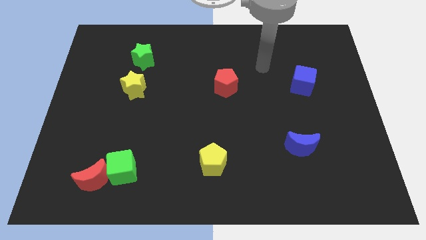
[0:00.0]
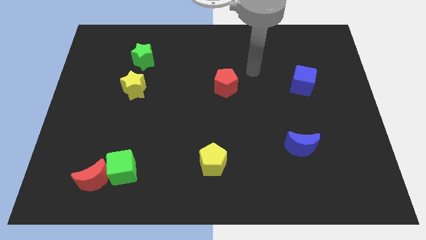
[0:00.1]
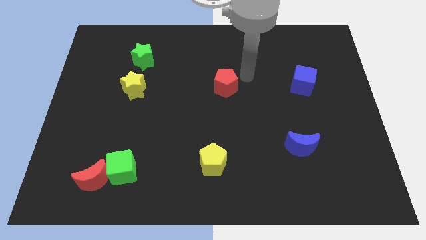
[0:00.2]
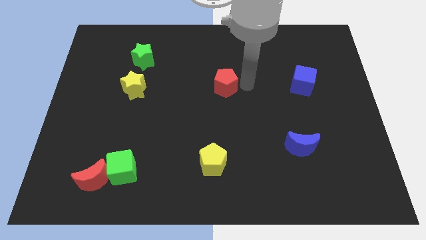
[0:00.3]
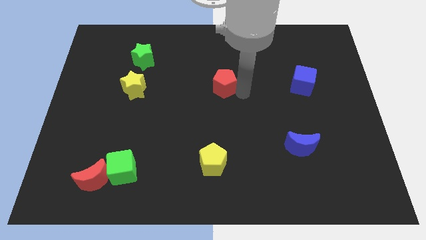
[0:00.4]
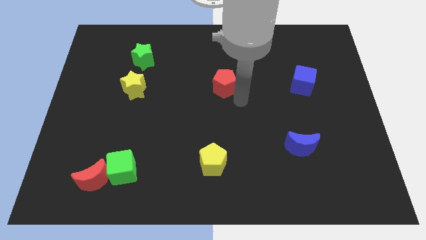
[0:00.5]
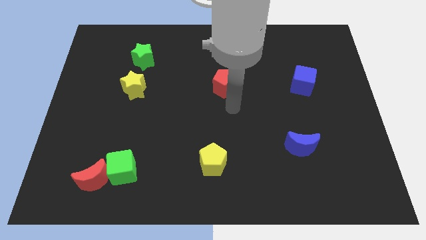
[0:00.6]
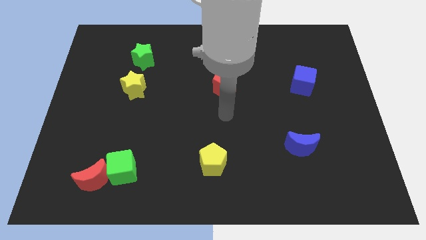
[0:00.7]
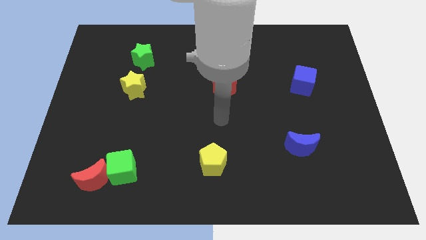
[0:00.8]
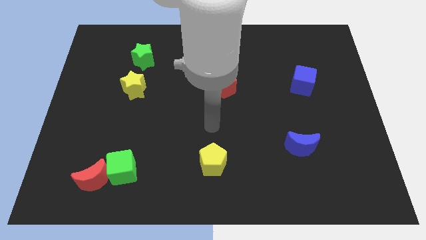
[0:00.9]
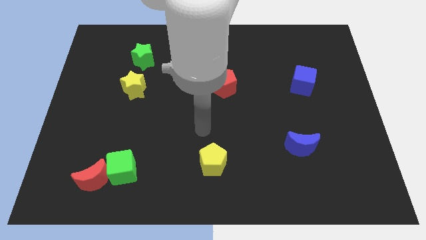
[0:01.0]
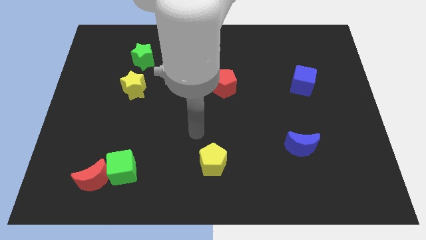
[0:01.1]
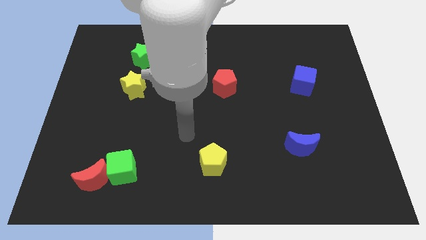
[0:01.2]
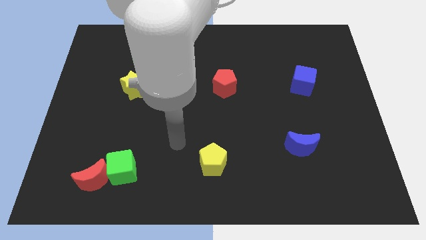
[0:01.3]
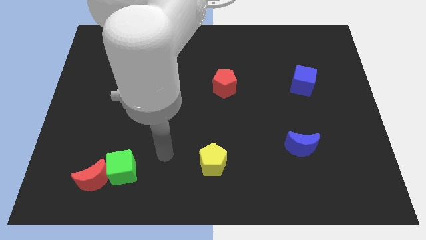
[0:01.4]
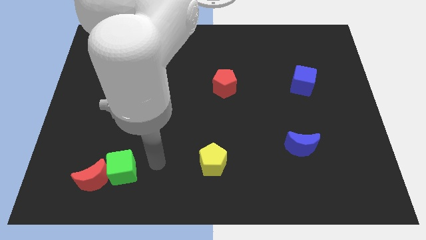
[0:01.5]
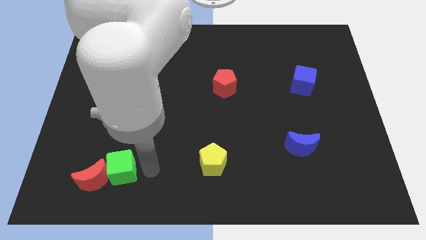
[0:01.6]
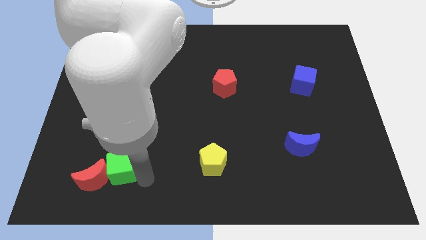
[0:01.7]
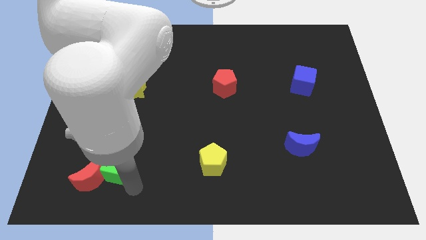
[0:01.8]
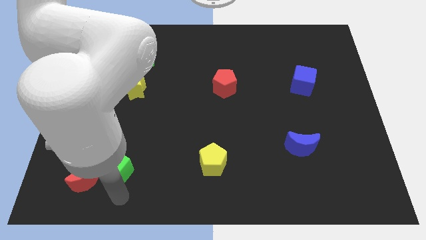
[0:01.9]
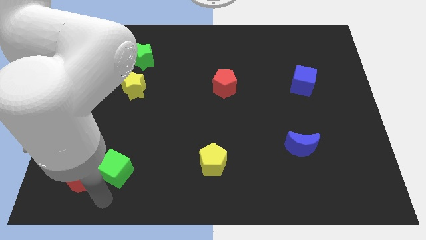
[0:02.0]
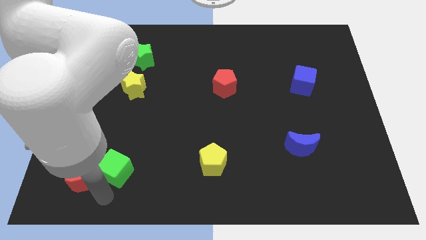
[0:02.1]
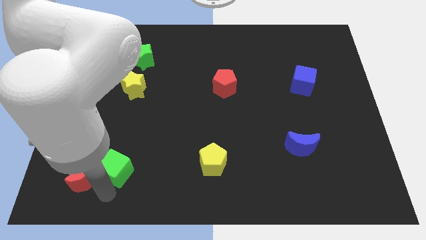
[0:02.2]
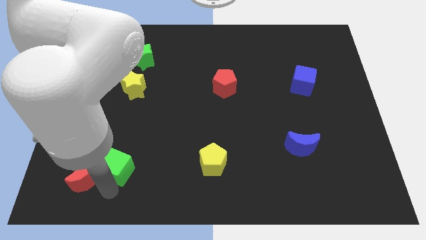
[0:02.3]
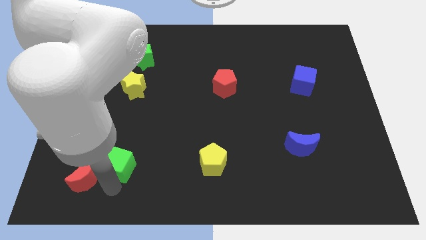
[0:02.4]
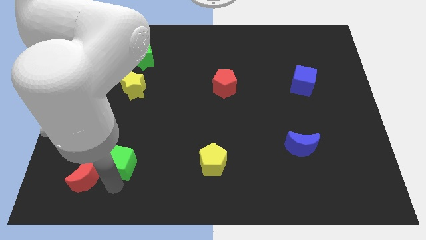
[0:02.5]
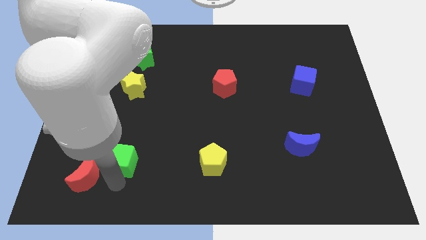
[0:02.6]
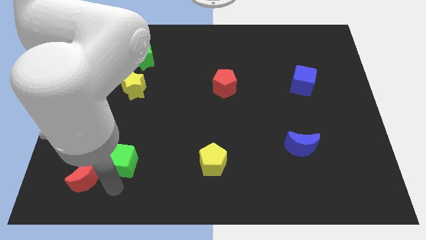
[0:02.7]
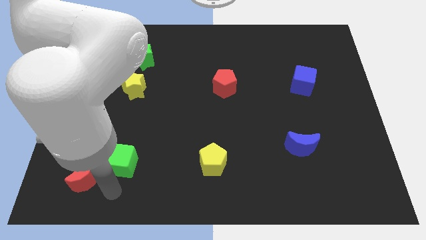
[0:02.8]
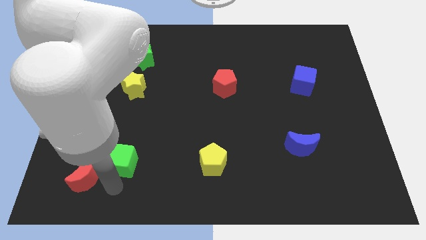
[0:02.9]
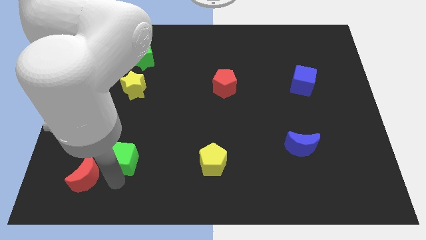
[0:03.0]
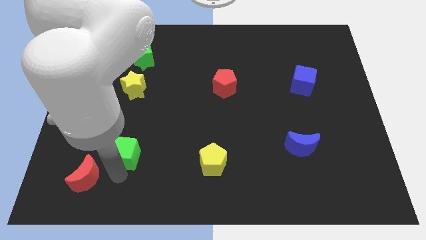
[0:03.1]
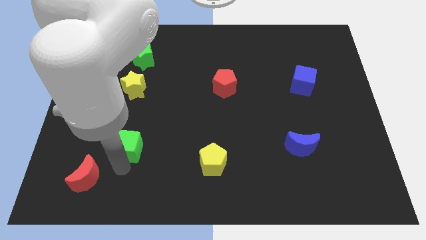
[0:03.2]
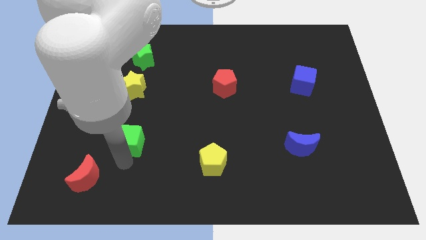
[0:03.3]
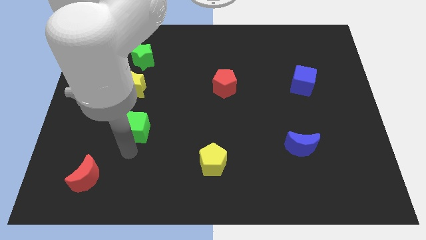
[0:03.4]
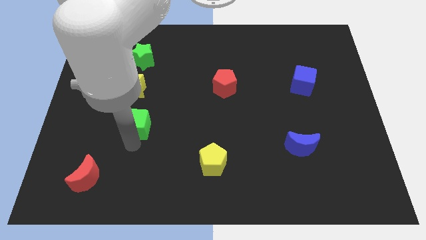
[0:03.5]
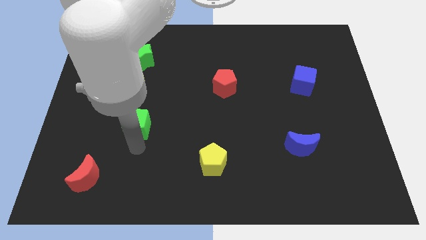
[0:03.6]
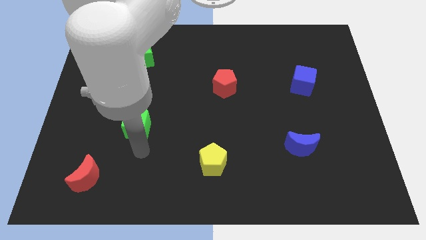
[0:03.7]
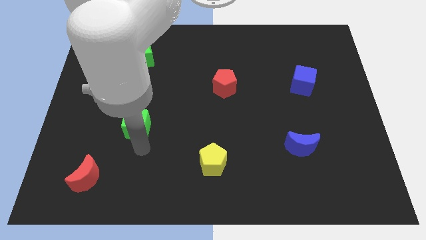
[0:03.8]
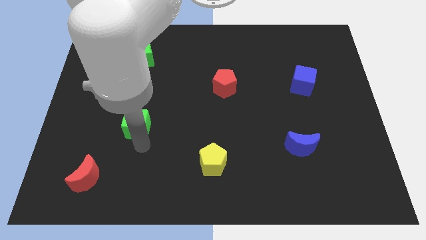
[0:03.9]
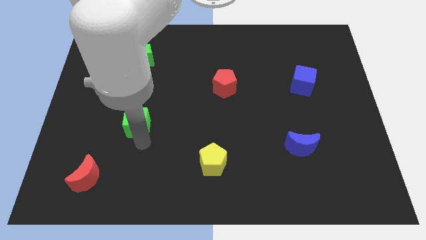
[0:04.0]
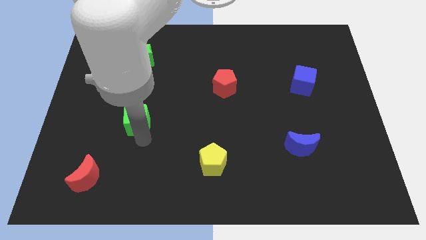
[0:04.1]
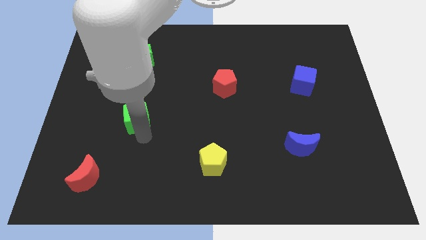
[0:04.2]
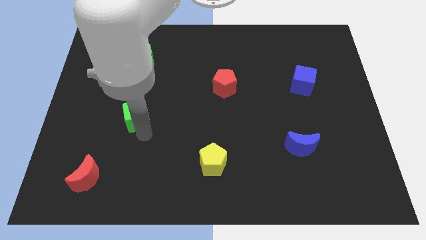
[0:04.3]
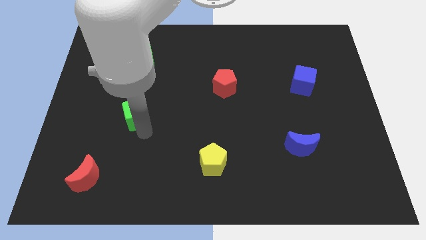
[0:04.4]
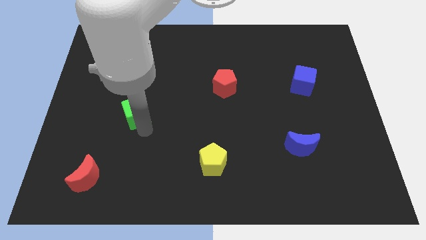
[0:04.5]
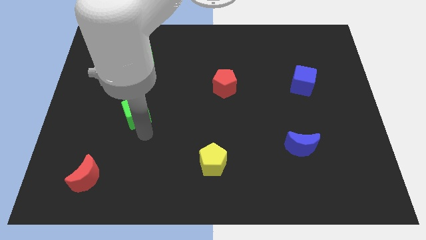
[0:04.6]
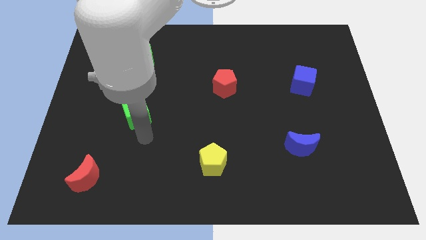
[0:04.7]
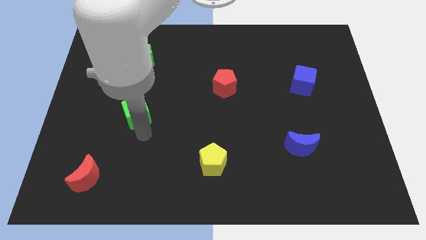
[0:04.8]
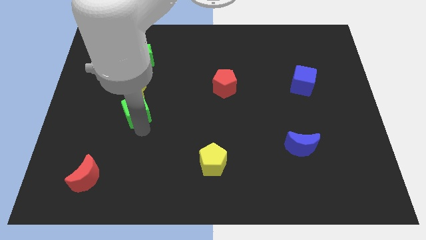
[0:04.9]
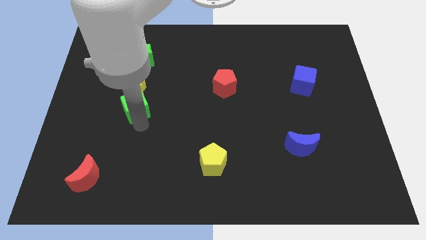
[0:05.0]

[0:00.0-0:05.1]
push the green cube to the yellow star

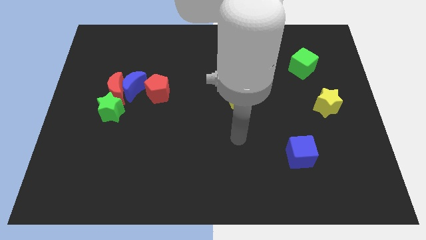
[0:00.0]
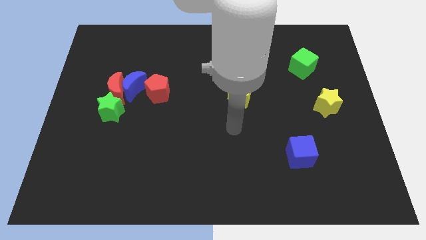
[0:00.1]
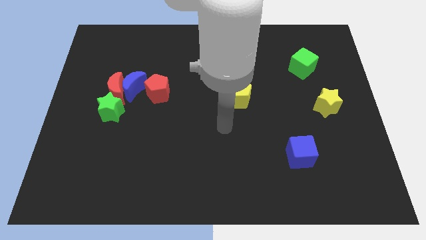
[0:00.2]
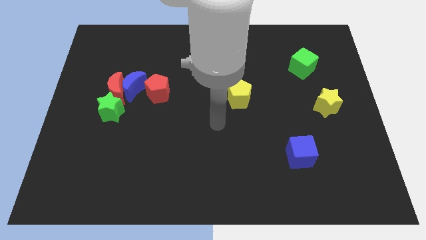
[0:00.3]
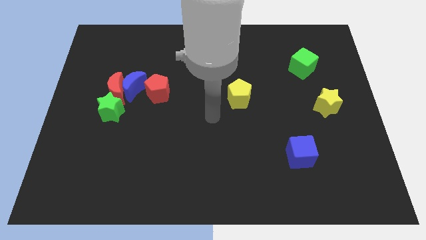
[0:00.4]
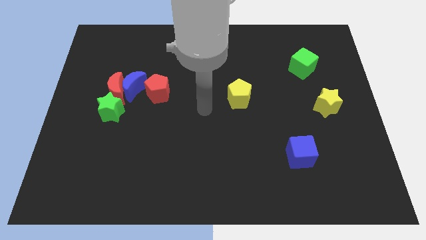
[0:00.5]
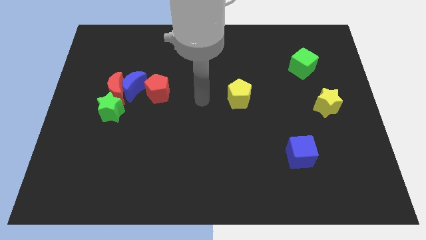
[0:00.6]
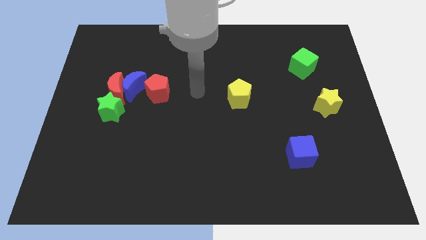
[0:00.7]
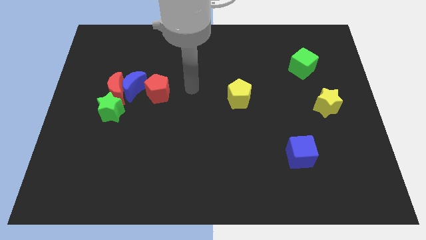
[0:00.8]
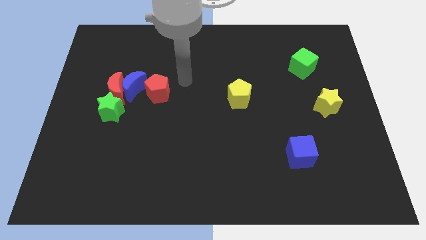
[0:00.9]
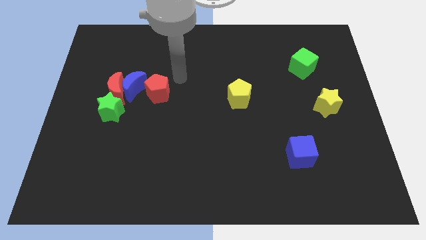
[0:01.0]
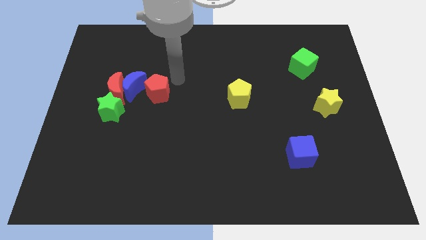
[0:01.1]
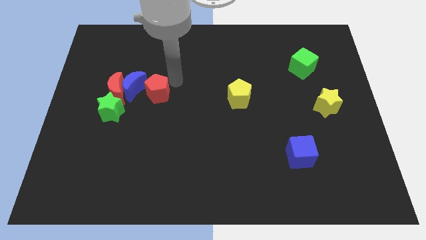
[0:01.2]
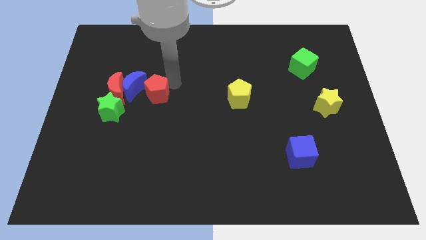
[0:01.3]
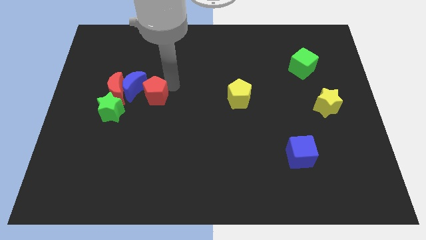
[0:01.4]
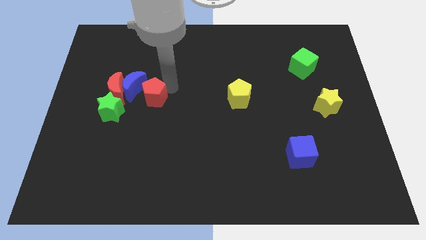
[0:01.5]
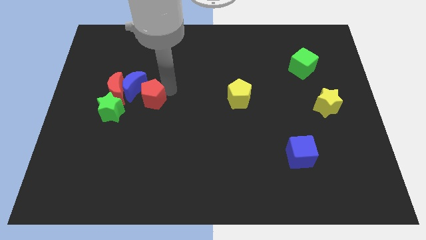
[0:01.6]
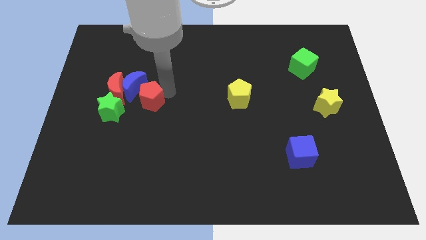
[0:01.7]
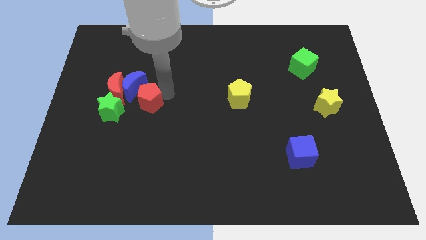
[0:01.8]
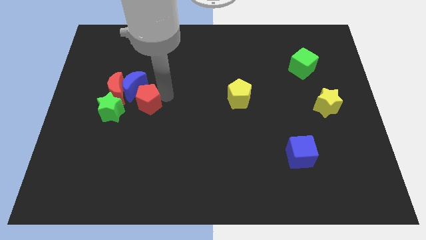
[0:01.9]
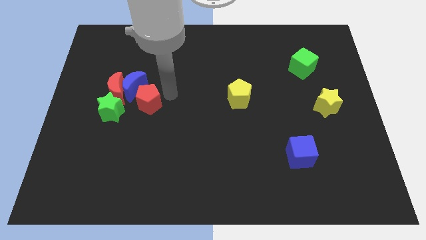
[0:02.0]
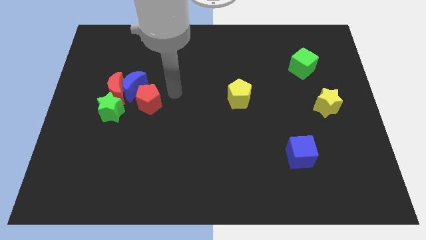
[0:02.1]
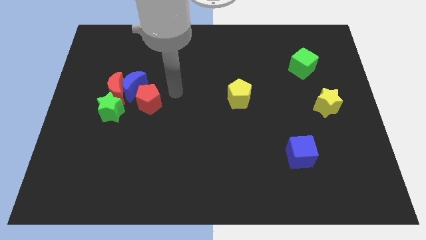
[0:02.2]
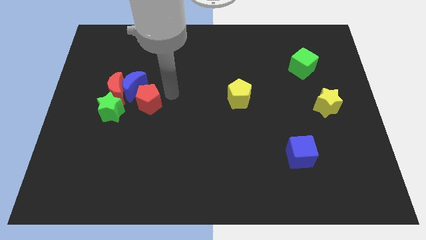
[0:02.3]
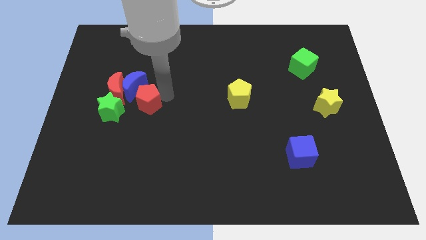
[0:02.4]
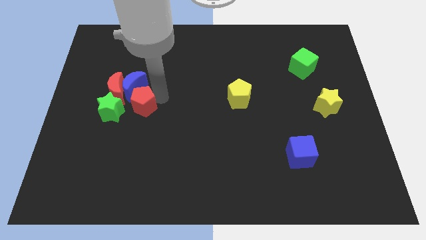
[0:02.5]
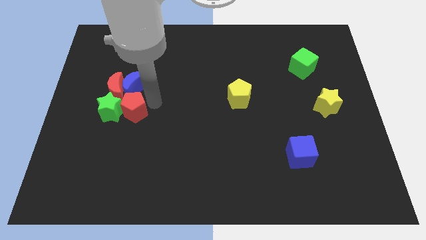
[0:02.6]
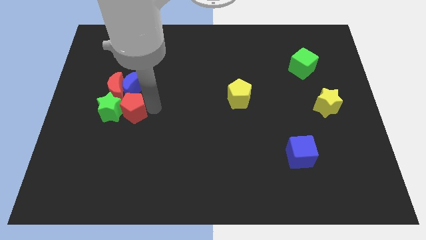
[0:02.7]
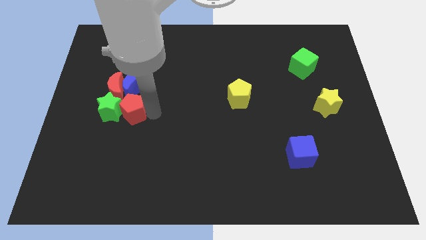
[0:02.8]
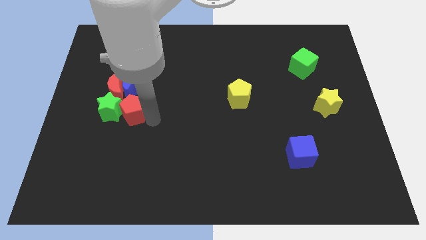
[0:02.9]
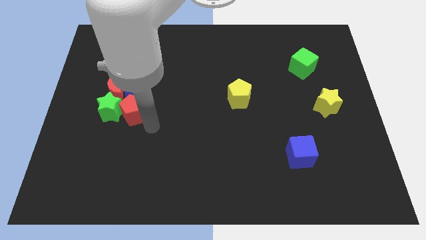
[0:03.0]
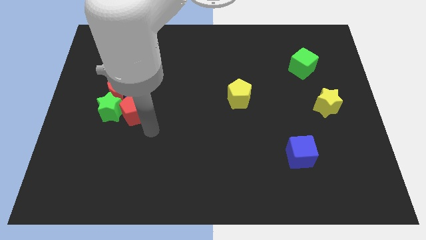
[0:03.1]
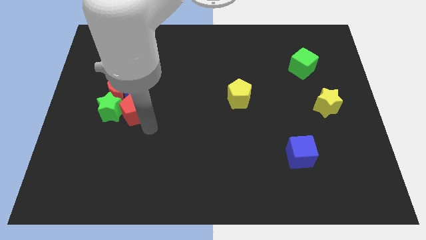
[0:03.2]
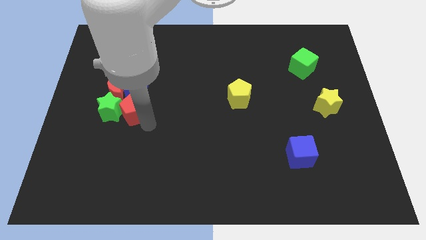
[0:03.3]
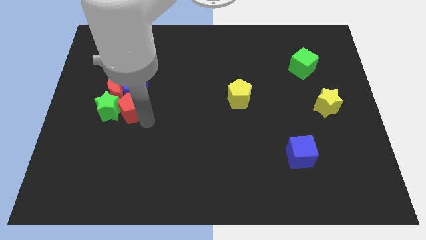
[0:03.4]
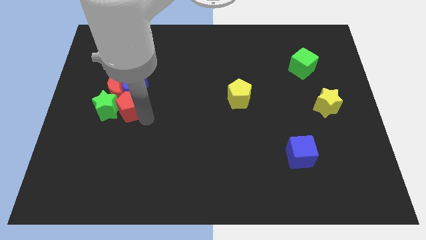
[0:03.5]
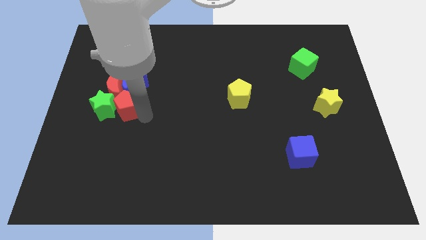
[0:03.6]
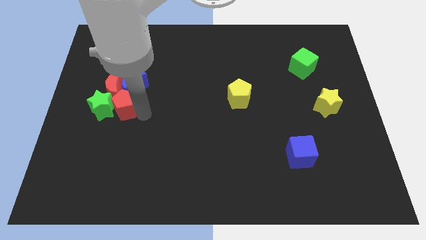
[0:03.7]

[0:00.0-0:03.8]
push the red pentagon close to the red moon
